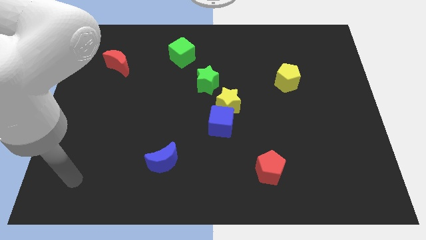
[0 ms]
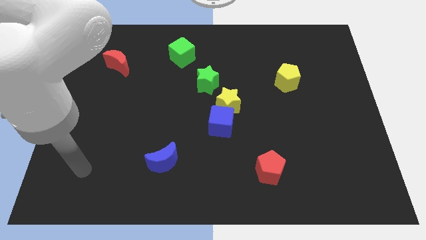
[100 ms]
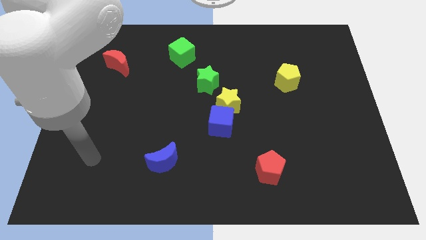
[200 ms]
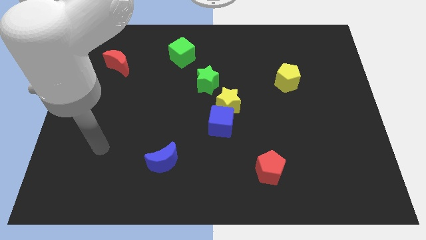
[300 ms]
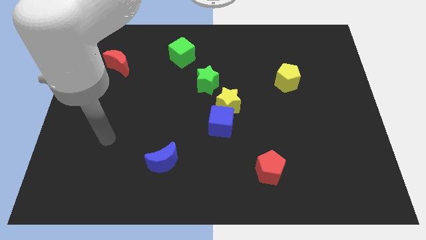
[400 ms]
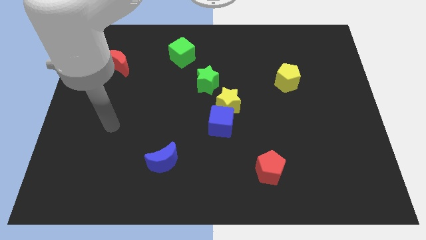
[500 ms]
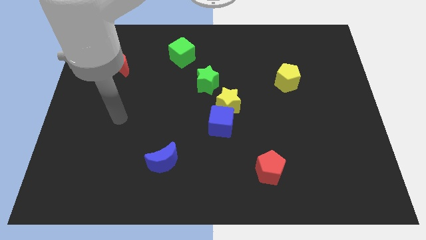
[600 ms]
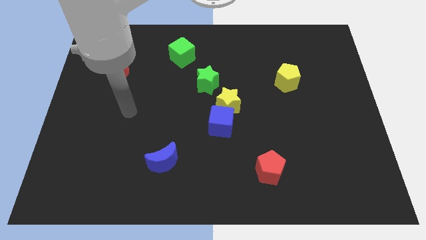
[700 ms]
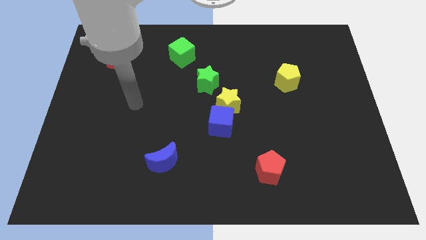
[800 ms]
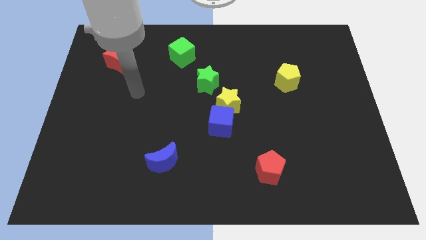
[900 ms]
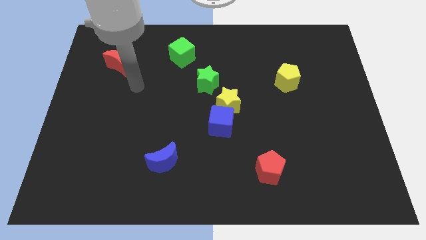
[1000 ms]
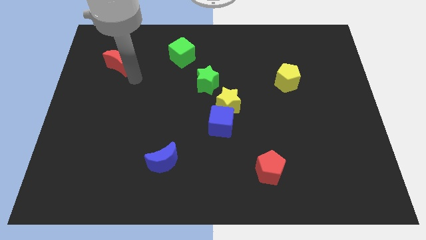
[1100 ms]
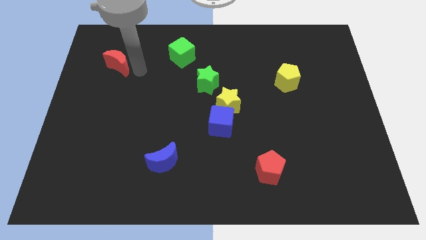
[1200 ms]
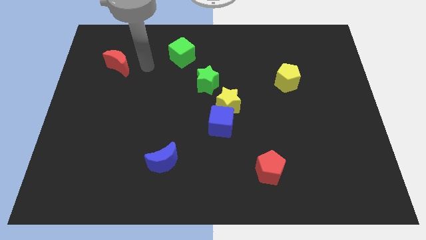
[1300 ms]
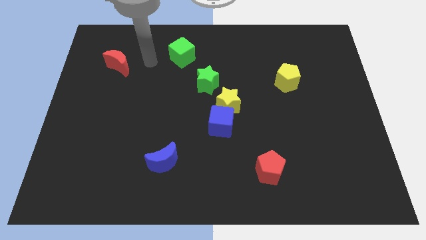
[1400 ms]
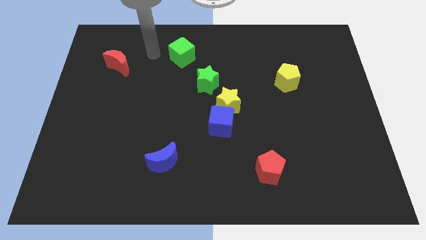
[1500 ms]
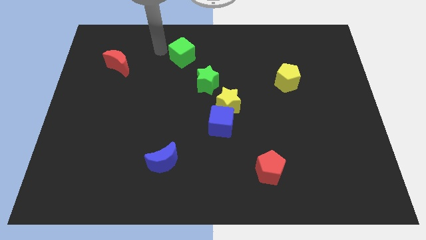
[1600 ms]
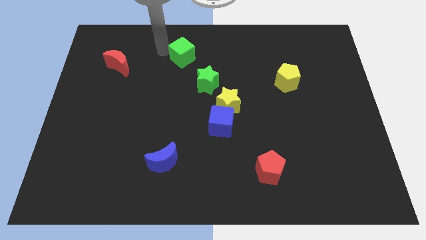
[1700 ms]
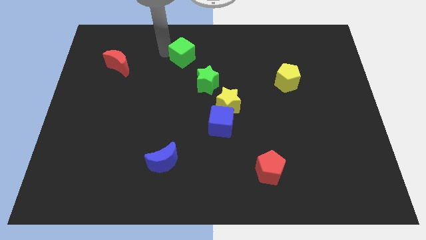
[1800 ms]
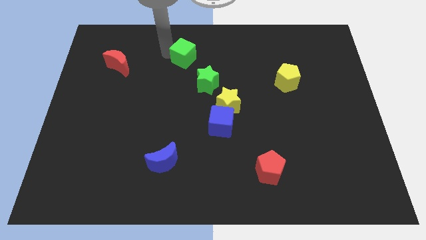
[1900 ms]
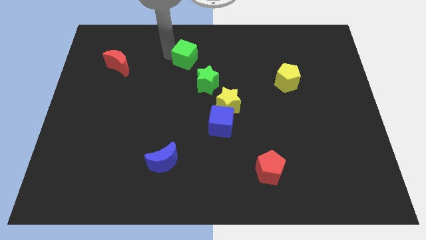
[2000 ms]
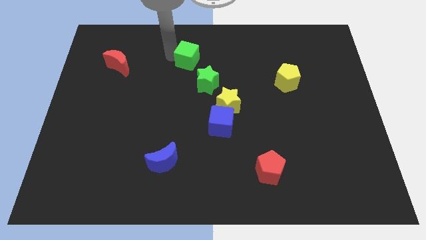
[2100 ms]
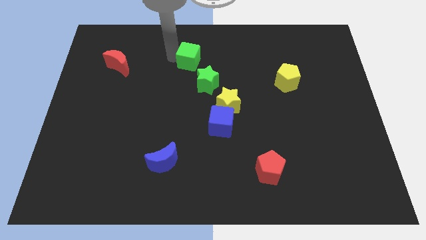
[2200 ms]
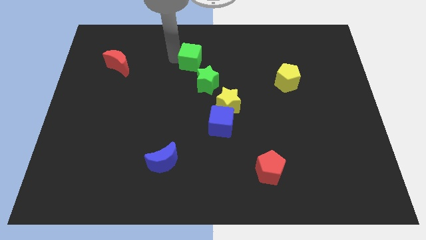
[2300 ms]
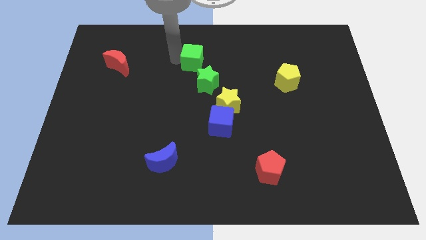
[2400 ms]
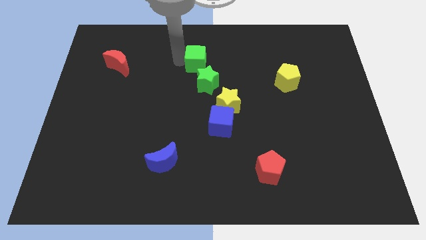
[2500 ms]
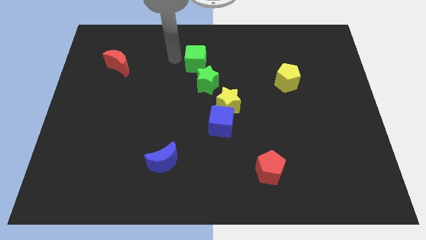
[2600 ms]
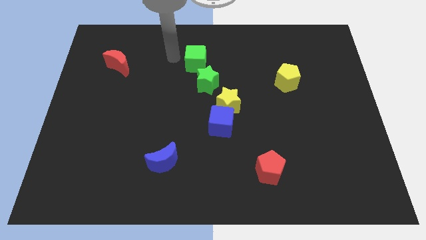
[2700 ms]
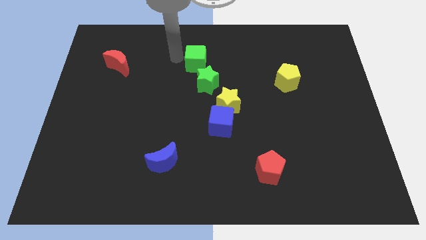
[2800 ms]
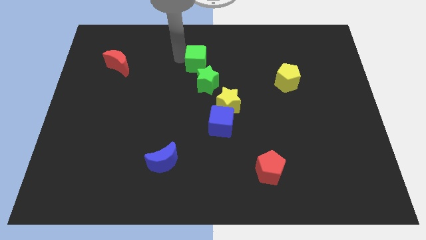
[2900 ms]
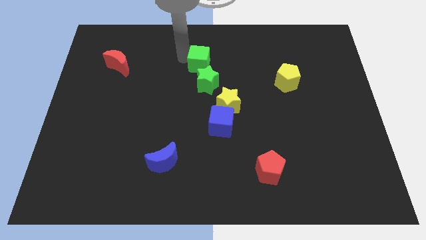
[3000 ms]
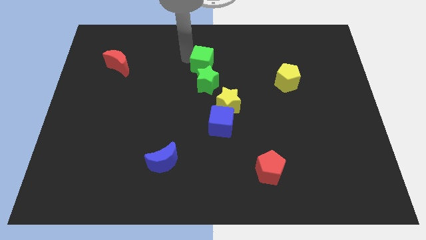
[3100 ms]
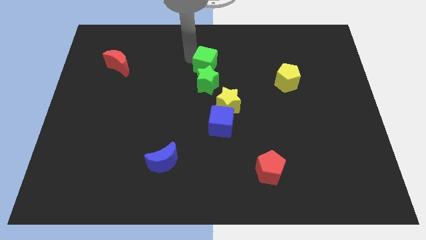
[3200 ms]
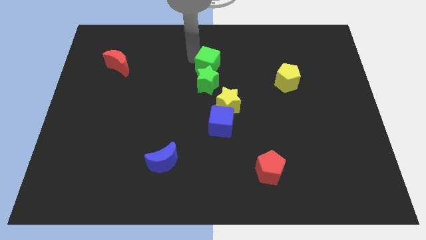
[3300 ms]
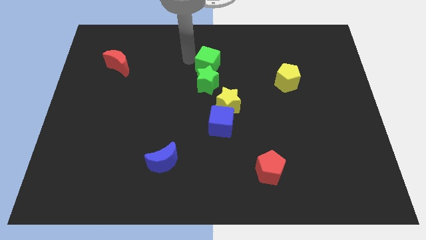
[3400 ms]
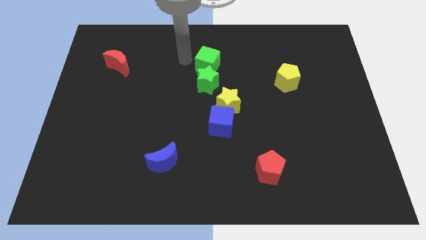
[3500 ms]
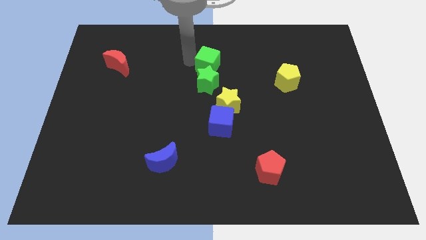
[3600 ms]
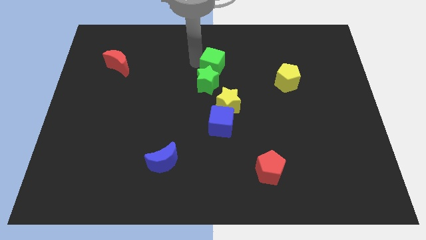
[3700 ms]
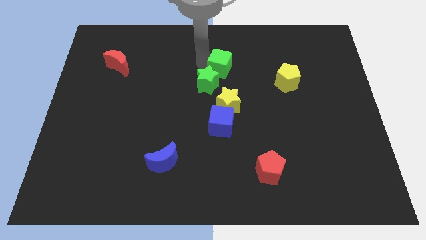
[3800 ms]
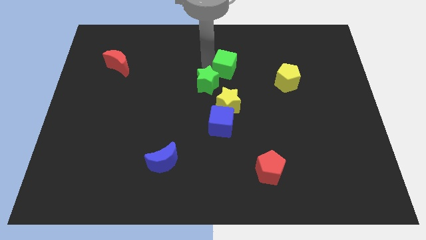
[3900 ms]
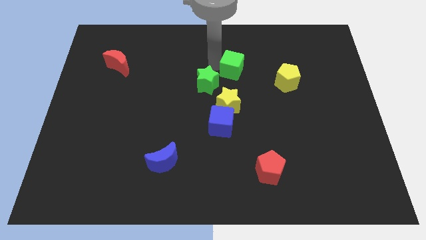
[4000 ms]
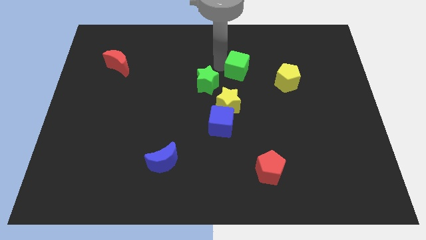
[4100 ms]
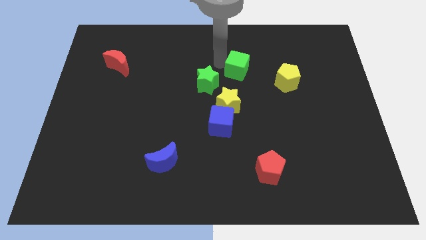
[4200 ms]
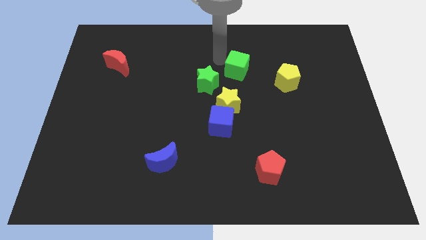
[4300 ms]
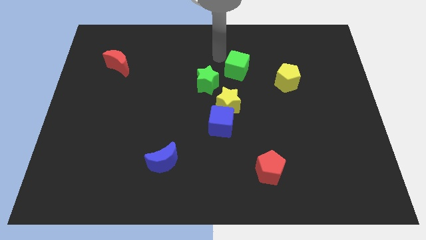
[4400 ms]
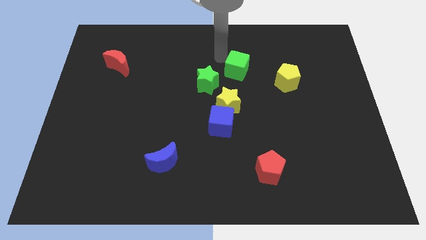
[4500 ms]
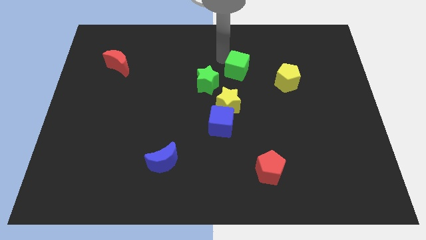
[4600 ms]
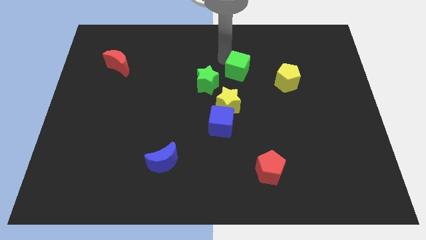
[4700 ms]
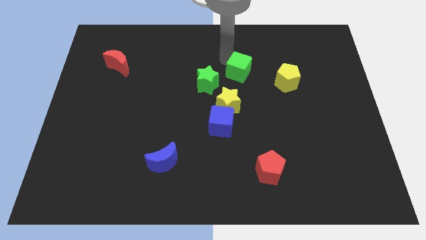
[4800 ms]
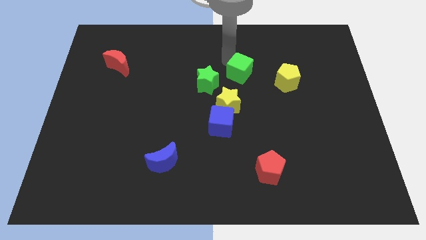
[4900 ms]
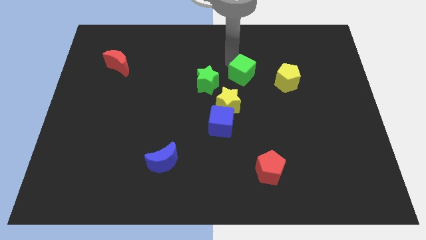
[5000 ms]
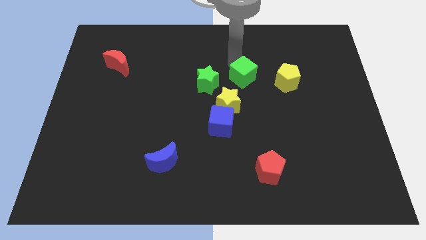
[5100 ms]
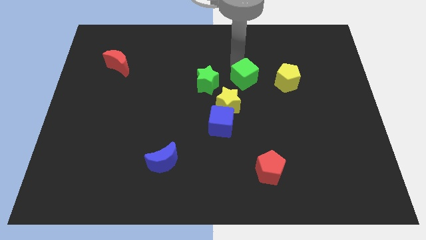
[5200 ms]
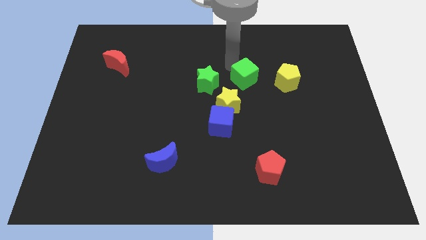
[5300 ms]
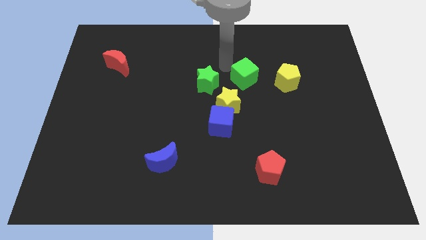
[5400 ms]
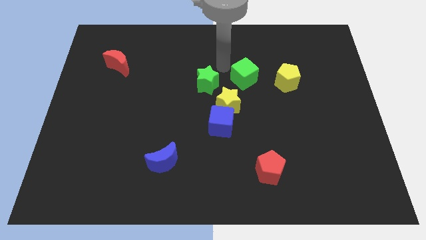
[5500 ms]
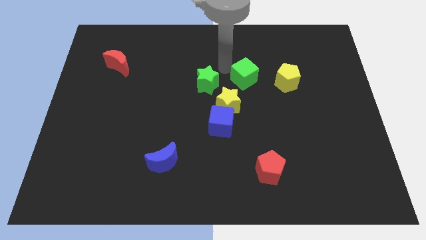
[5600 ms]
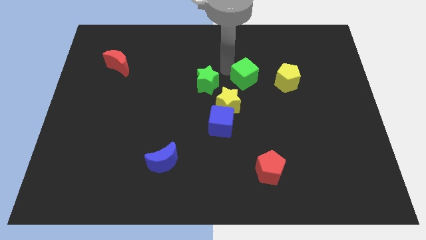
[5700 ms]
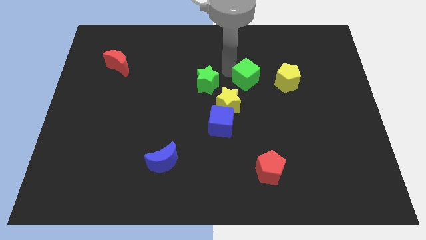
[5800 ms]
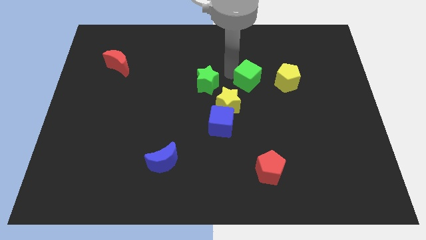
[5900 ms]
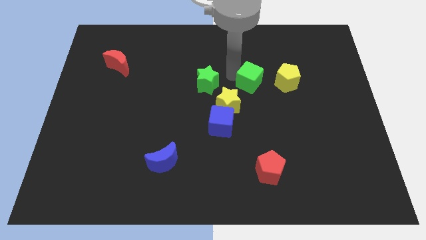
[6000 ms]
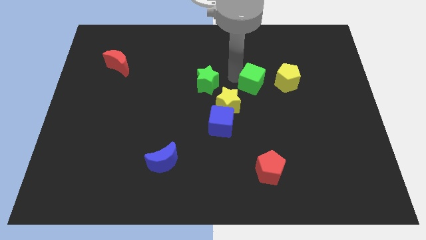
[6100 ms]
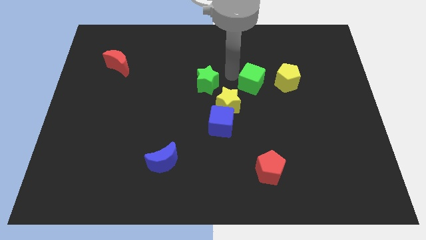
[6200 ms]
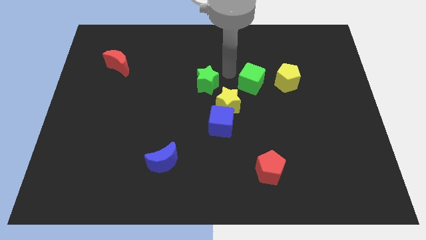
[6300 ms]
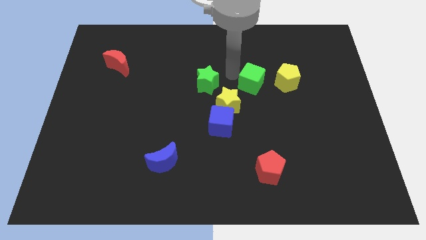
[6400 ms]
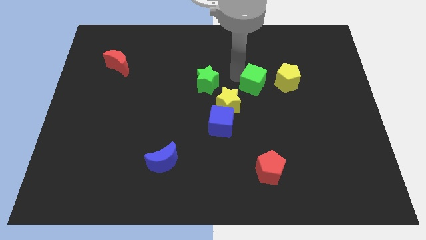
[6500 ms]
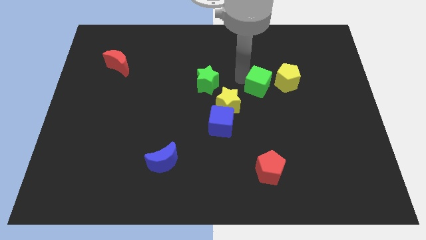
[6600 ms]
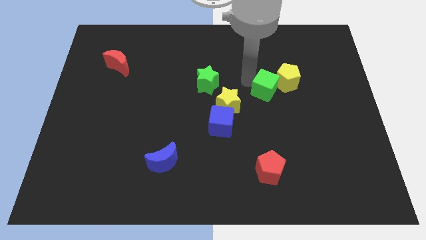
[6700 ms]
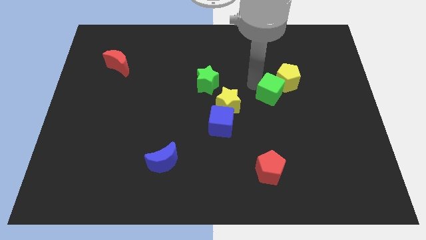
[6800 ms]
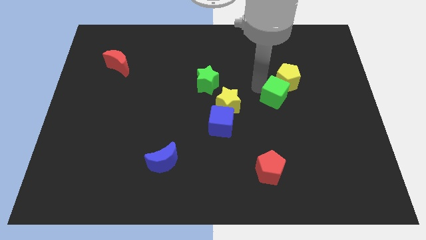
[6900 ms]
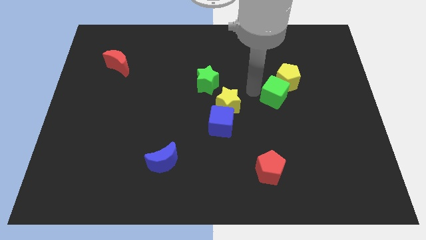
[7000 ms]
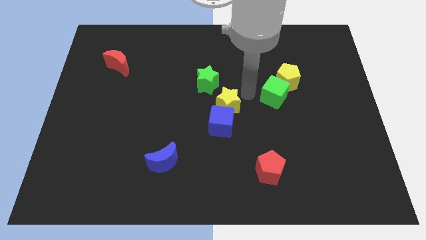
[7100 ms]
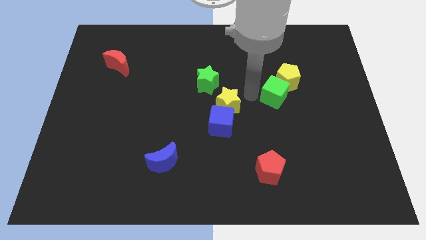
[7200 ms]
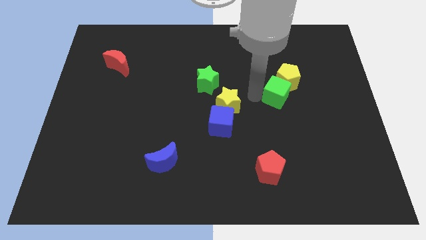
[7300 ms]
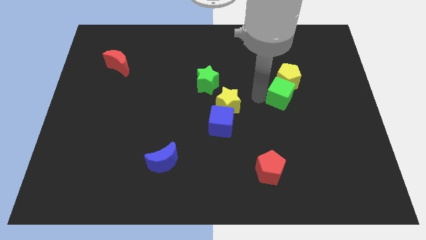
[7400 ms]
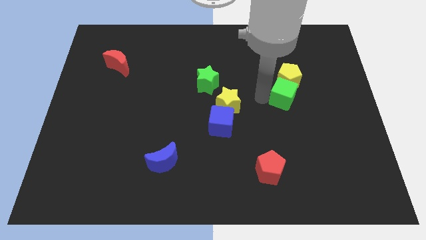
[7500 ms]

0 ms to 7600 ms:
push the green cube diagonally down and to the right of the yellow pentagon
